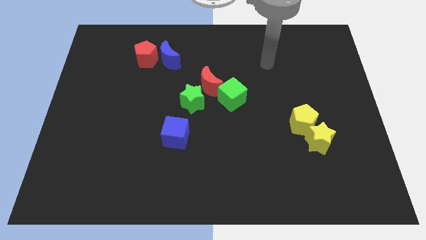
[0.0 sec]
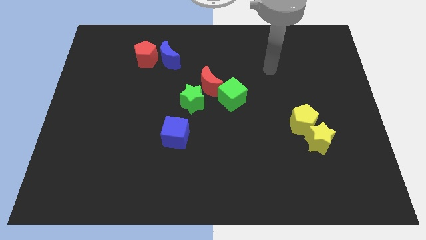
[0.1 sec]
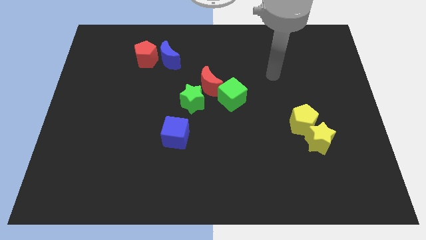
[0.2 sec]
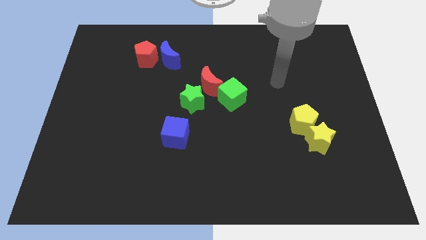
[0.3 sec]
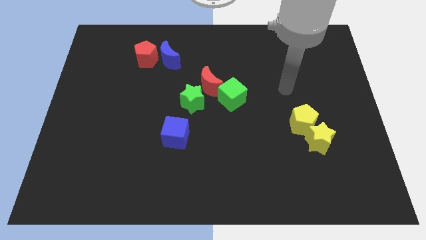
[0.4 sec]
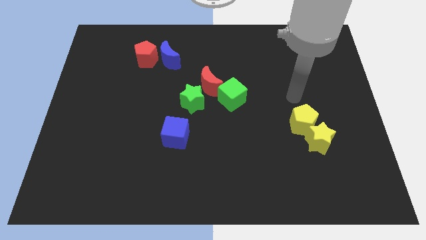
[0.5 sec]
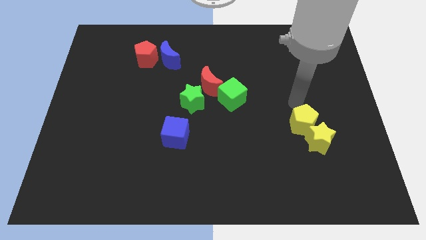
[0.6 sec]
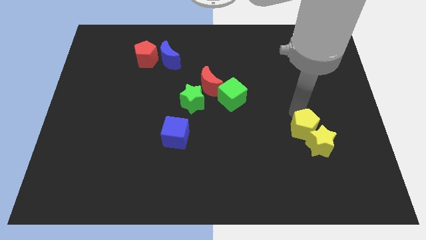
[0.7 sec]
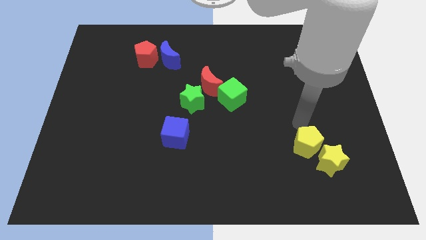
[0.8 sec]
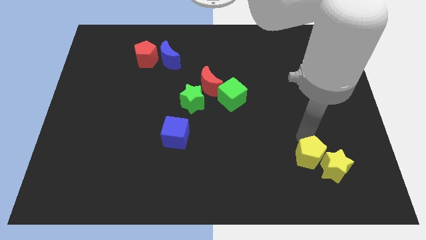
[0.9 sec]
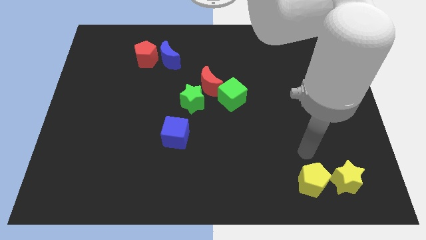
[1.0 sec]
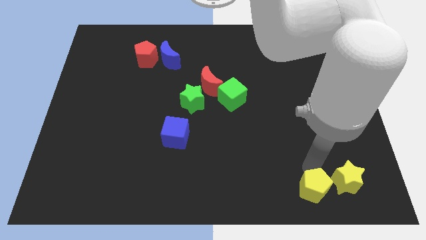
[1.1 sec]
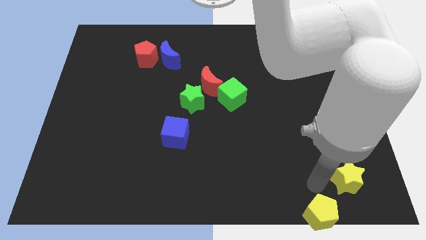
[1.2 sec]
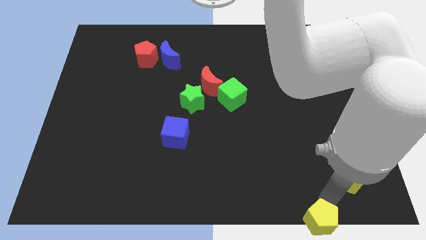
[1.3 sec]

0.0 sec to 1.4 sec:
move the yellow star away from the yellow pentagon

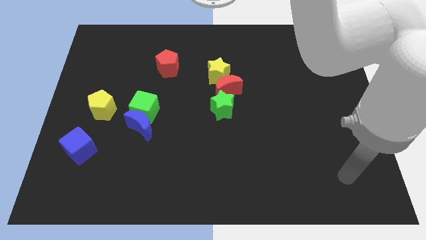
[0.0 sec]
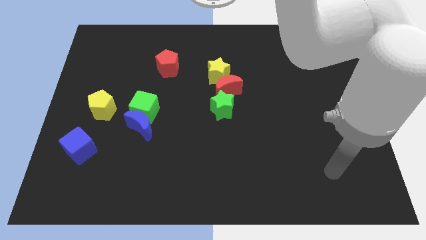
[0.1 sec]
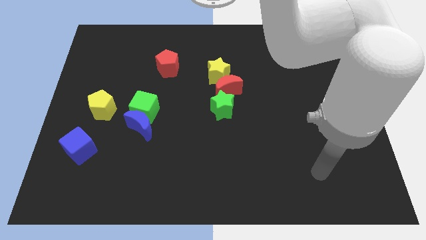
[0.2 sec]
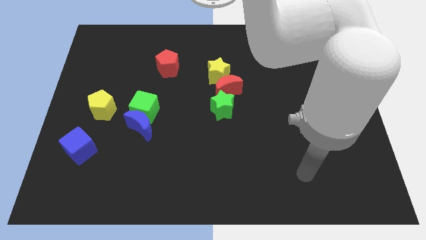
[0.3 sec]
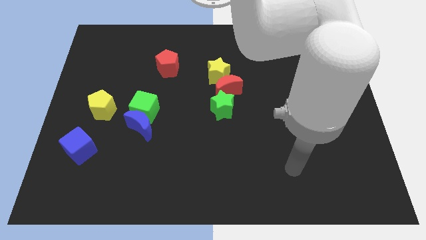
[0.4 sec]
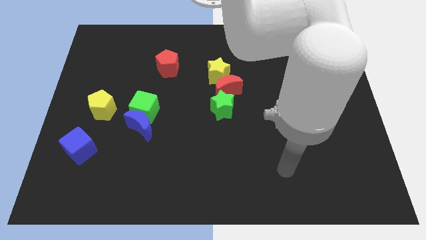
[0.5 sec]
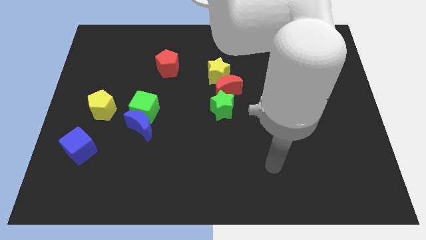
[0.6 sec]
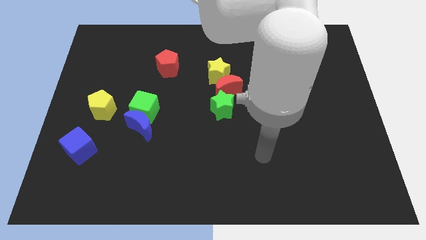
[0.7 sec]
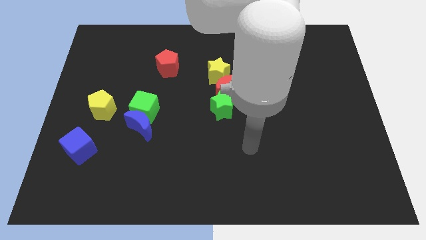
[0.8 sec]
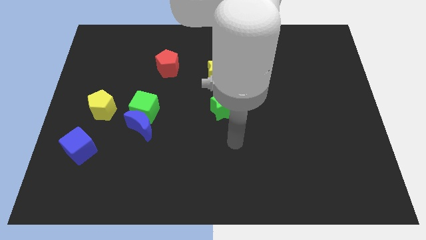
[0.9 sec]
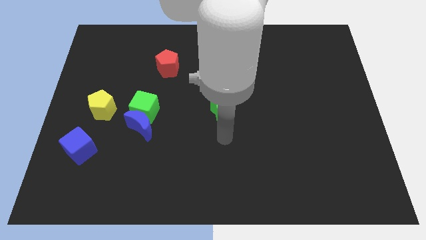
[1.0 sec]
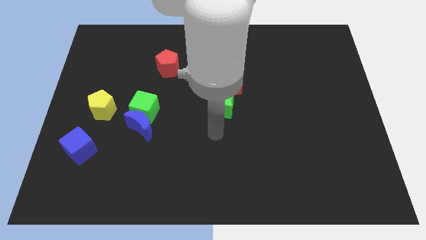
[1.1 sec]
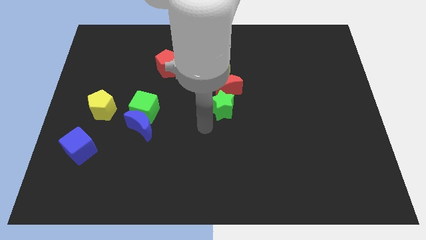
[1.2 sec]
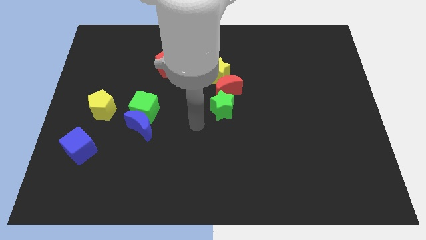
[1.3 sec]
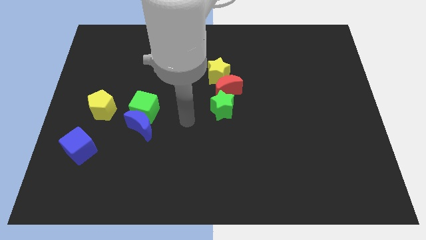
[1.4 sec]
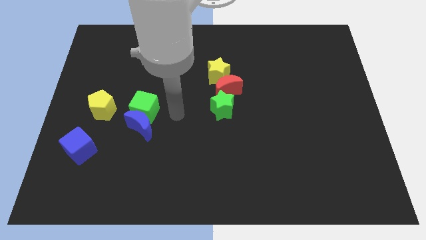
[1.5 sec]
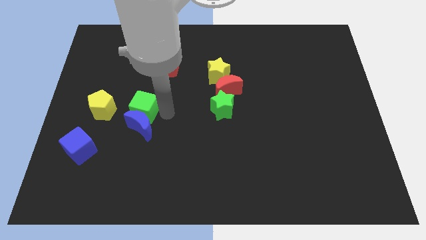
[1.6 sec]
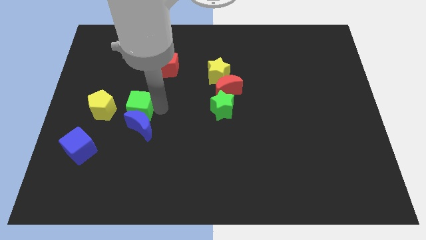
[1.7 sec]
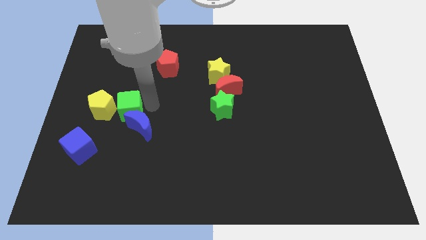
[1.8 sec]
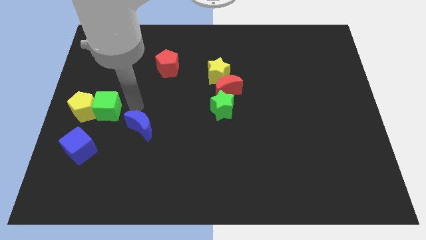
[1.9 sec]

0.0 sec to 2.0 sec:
pull the blue moon apart from the green cube

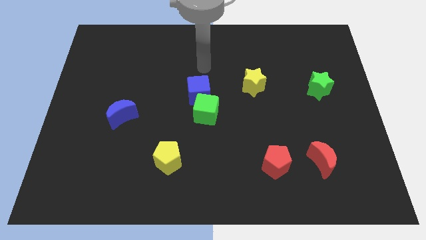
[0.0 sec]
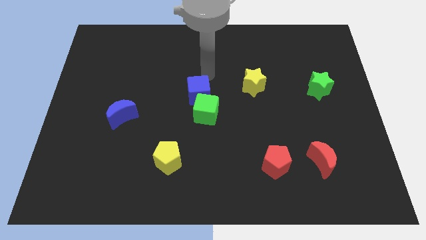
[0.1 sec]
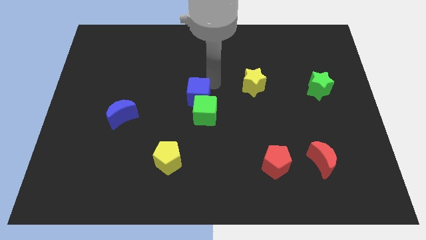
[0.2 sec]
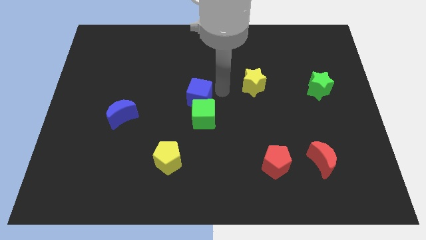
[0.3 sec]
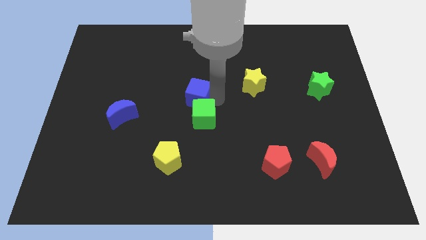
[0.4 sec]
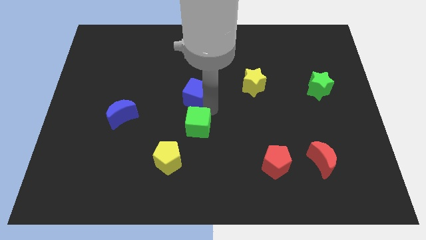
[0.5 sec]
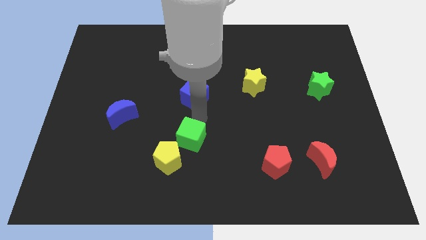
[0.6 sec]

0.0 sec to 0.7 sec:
pull the blue cube apart from the green cube

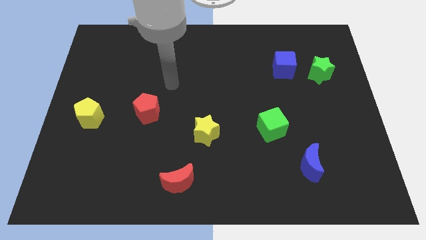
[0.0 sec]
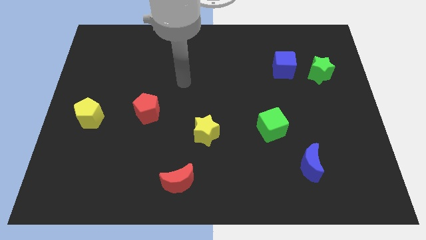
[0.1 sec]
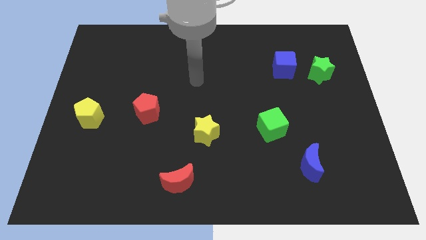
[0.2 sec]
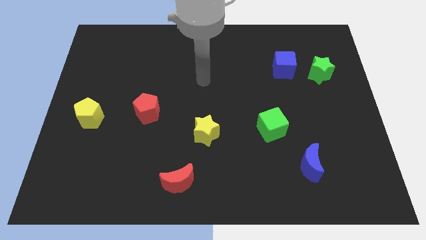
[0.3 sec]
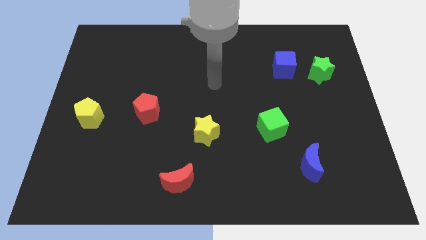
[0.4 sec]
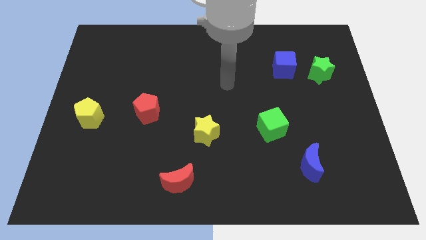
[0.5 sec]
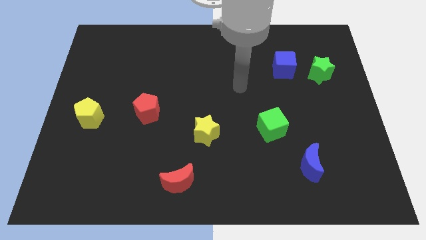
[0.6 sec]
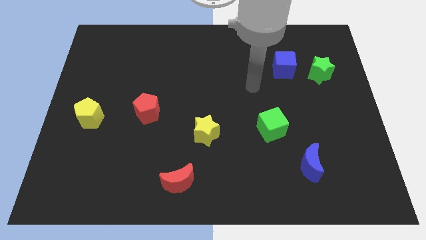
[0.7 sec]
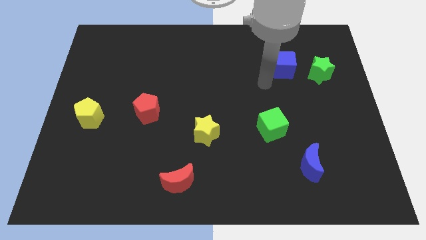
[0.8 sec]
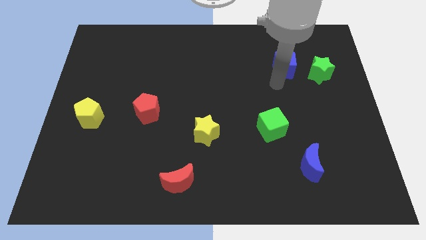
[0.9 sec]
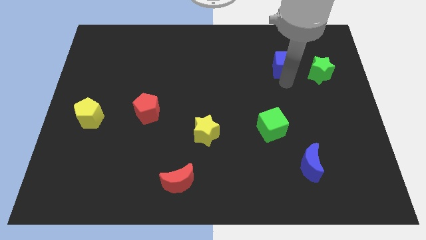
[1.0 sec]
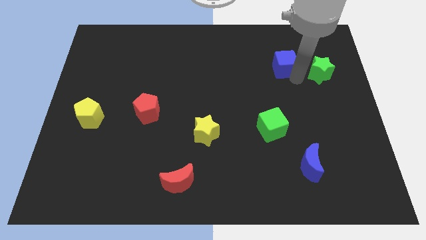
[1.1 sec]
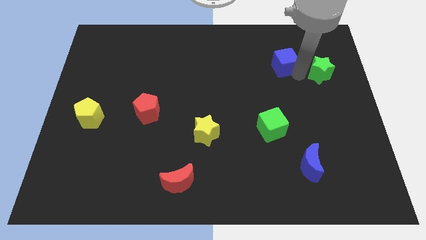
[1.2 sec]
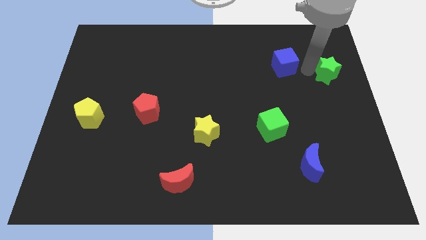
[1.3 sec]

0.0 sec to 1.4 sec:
move the blue cube away from the green star

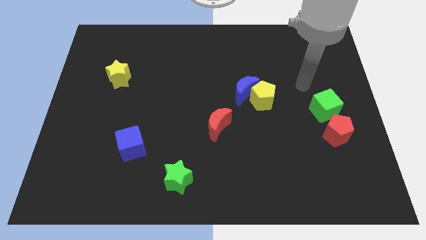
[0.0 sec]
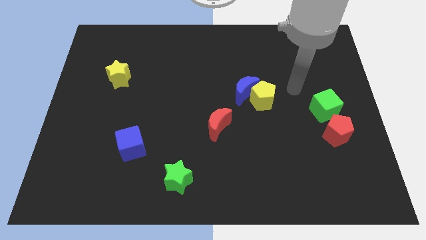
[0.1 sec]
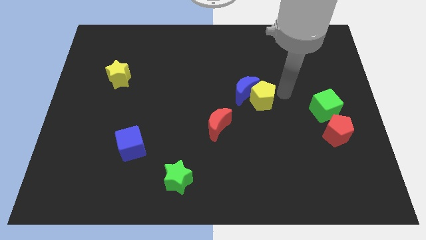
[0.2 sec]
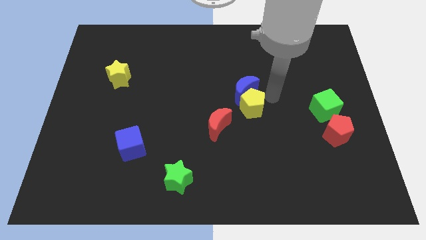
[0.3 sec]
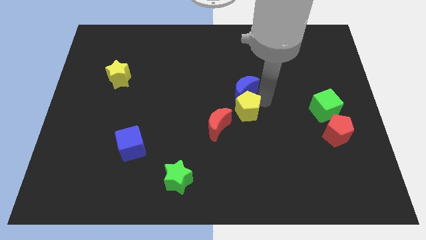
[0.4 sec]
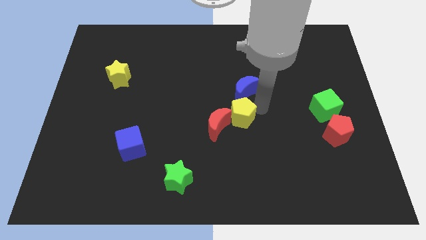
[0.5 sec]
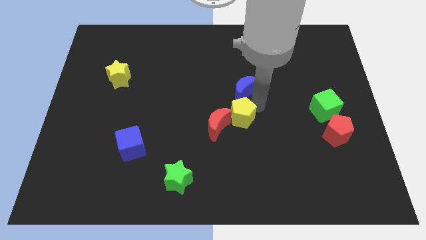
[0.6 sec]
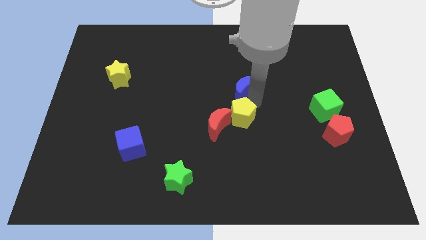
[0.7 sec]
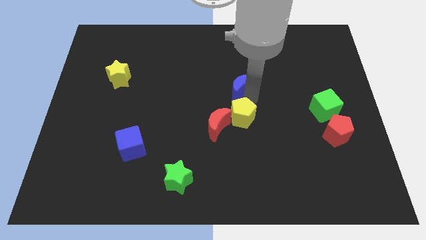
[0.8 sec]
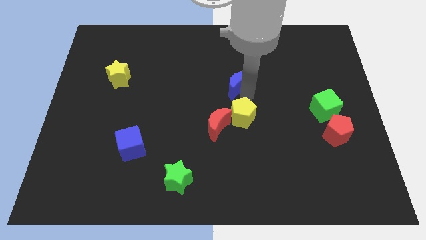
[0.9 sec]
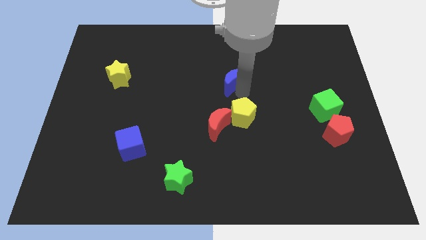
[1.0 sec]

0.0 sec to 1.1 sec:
separate the blue moon from the yellow pentagon

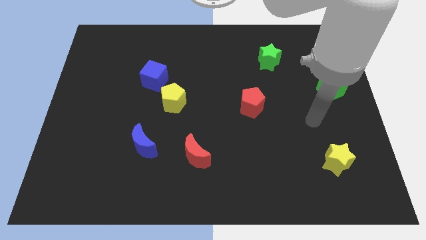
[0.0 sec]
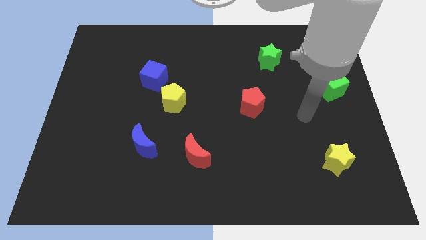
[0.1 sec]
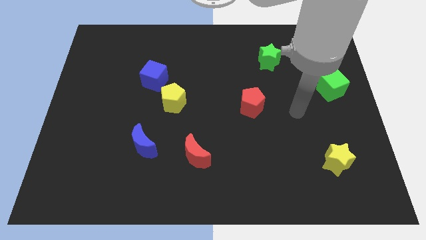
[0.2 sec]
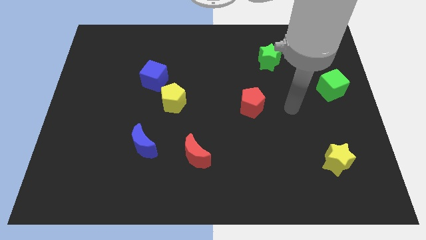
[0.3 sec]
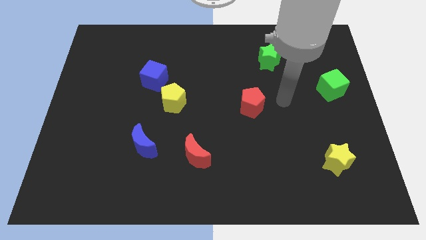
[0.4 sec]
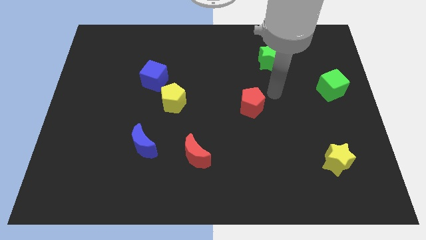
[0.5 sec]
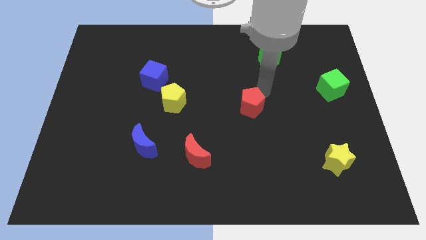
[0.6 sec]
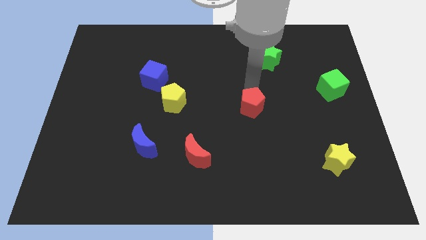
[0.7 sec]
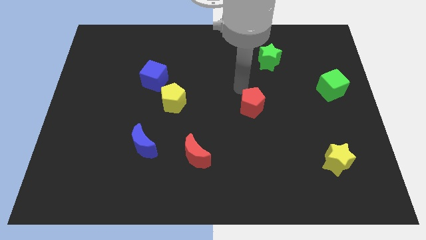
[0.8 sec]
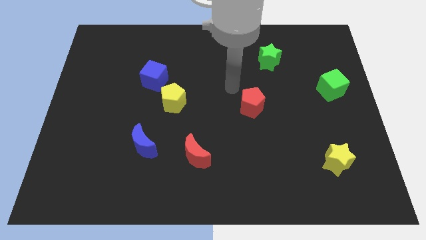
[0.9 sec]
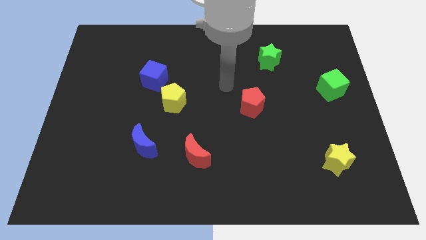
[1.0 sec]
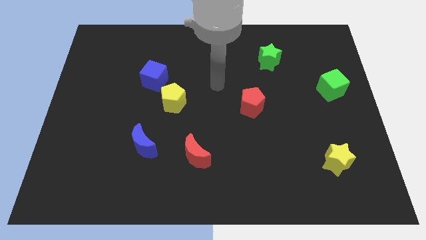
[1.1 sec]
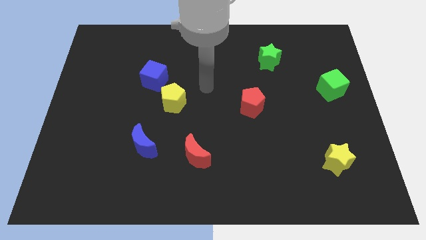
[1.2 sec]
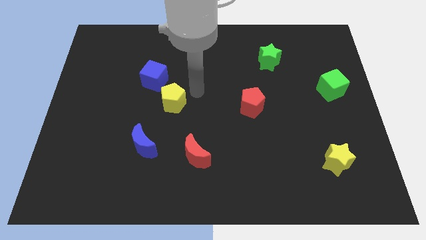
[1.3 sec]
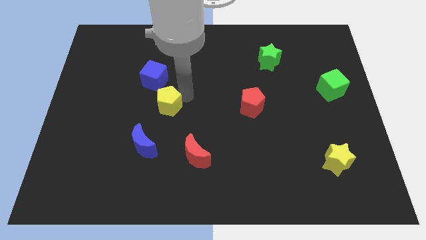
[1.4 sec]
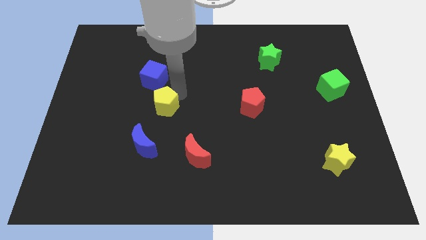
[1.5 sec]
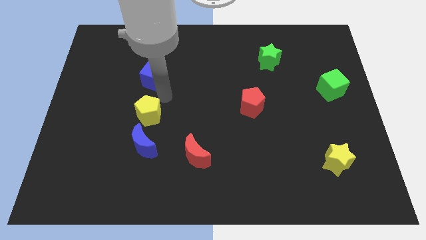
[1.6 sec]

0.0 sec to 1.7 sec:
pull the blue cube apart from the yellow pentagon

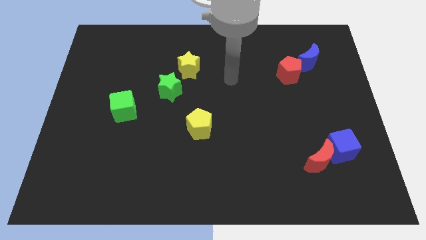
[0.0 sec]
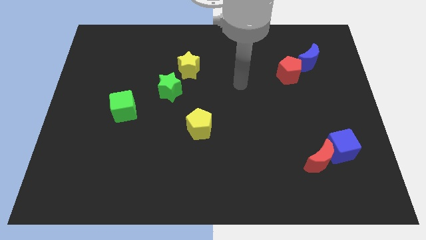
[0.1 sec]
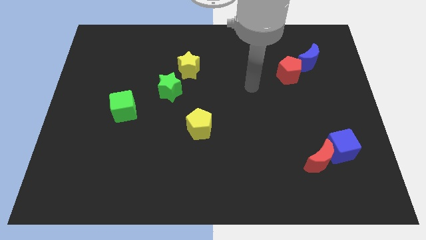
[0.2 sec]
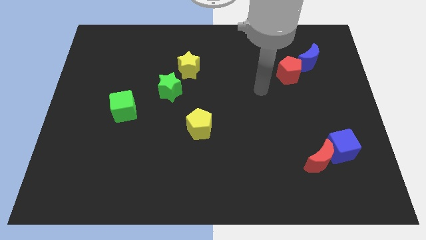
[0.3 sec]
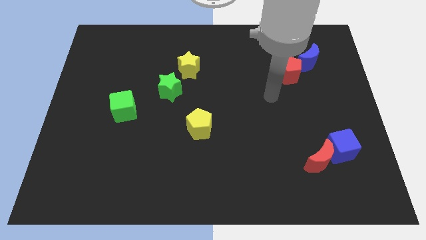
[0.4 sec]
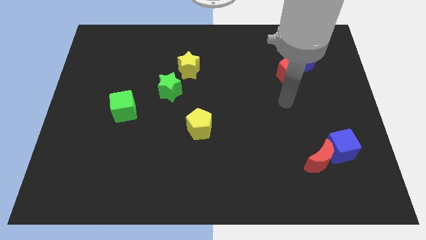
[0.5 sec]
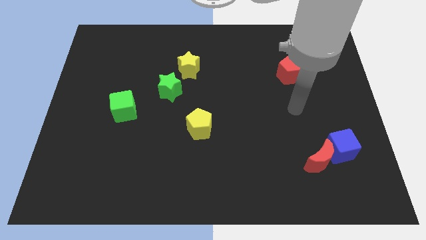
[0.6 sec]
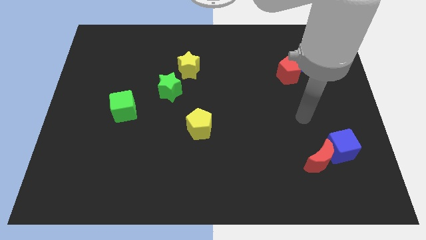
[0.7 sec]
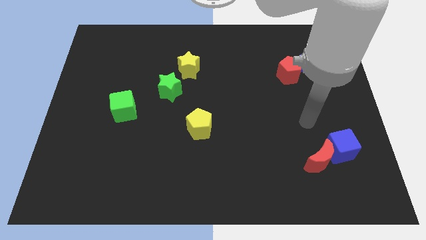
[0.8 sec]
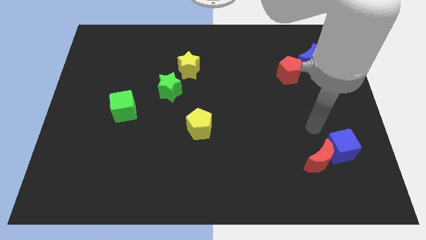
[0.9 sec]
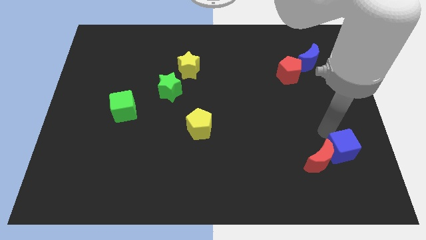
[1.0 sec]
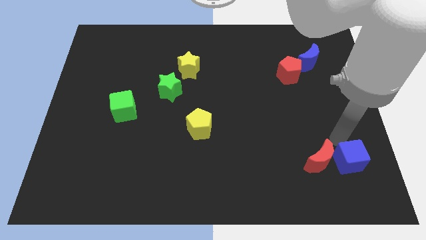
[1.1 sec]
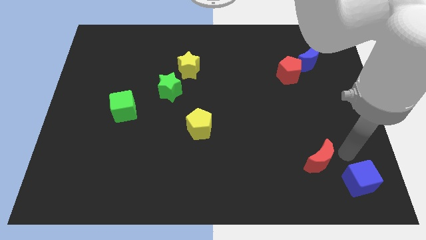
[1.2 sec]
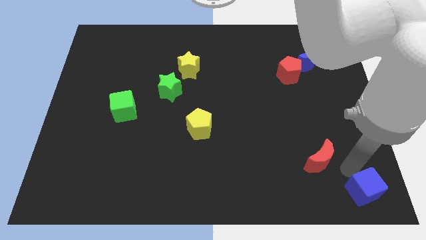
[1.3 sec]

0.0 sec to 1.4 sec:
pull the red moon apart from the blue cube
